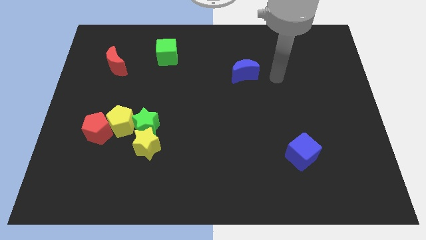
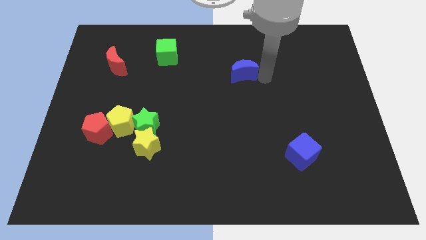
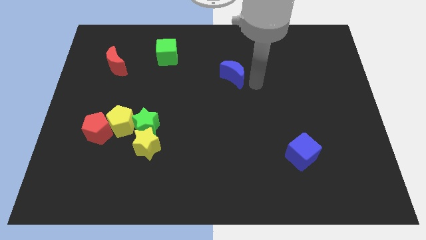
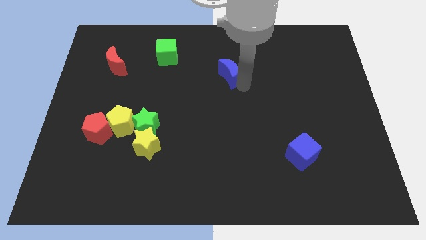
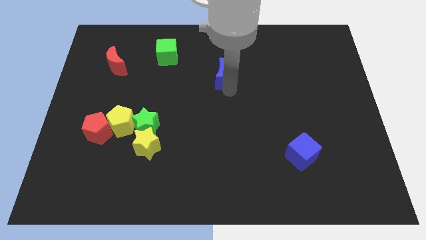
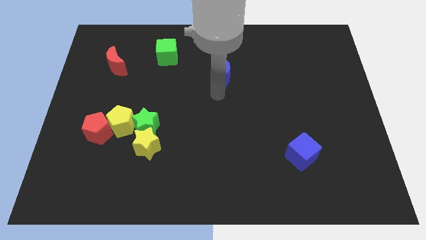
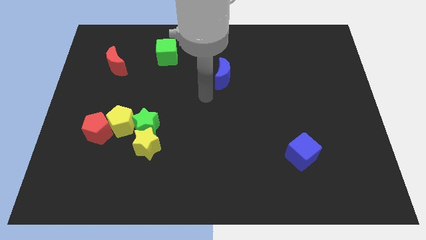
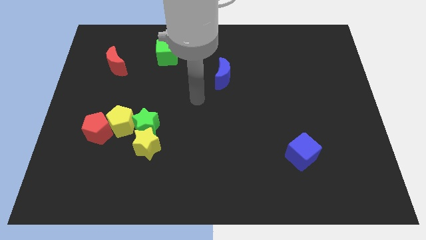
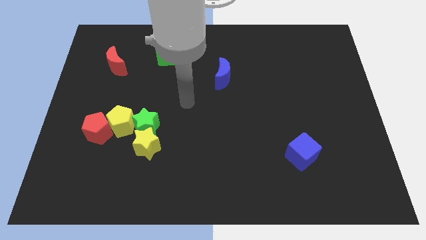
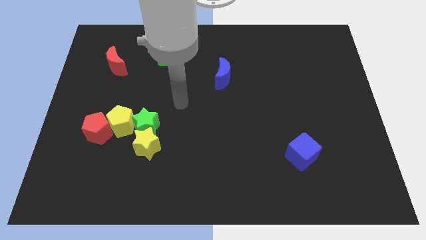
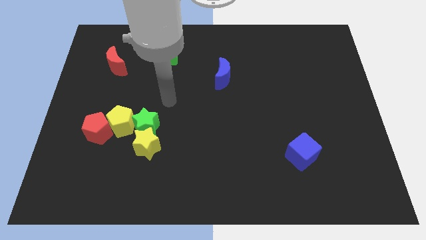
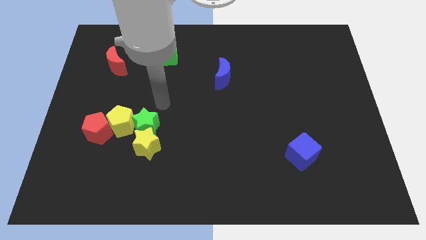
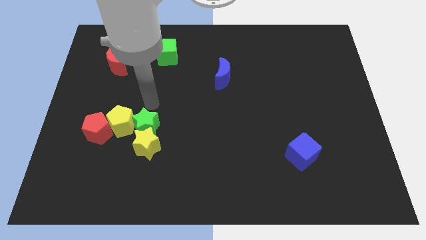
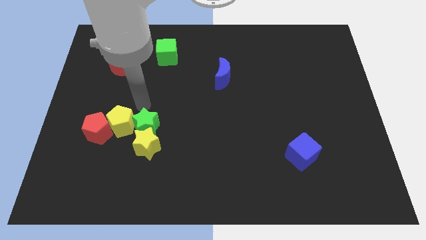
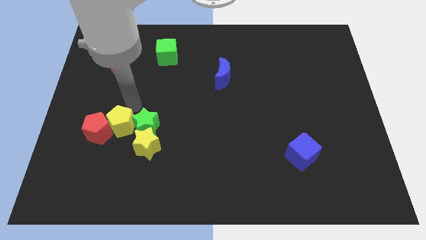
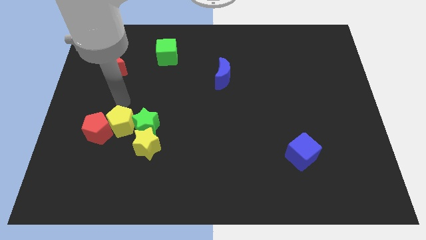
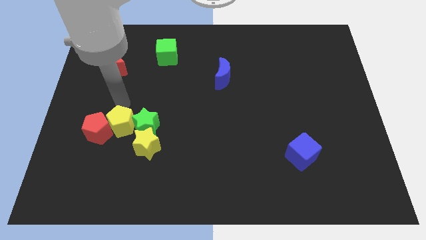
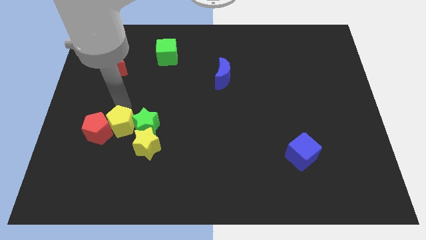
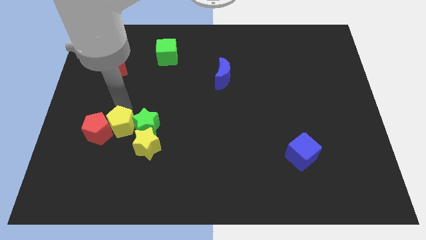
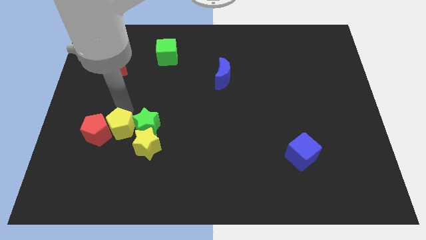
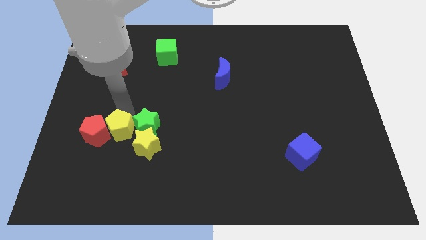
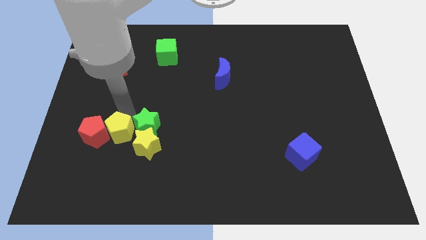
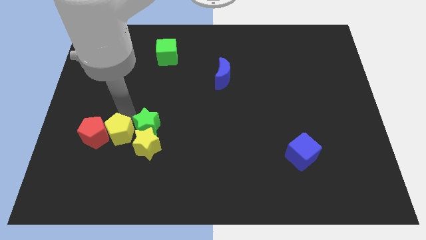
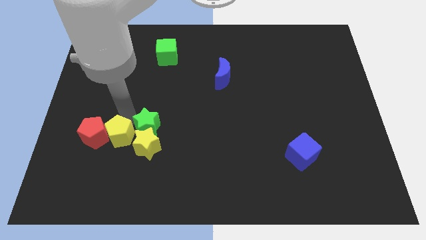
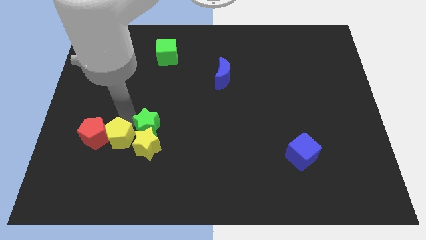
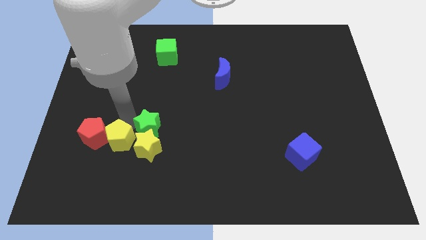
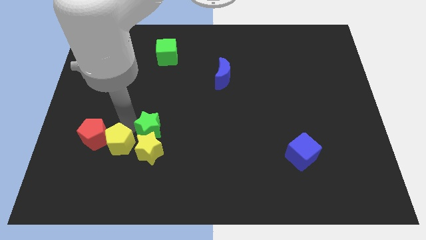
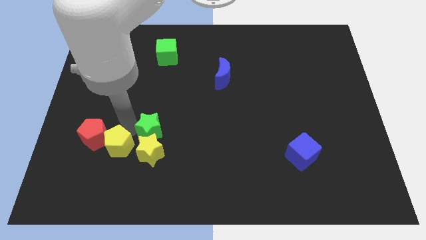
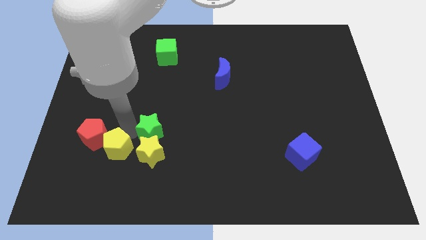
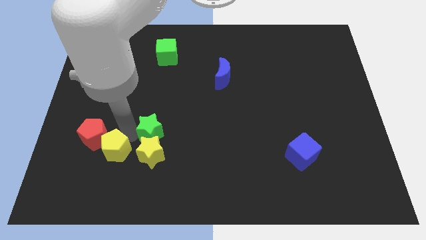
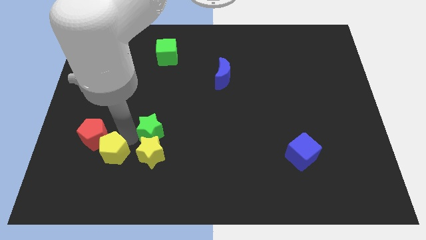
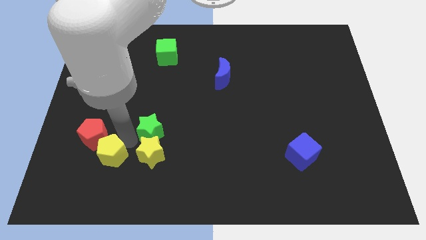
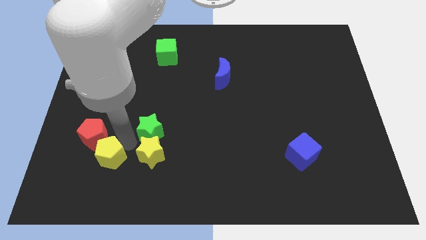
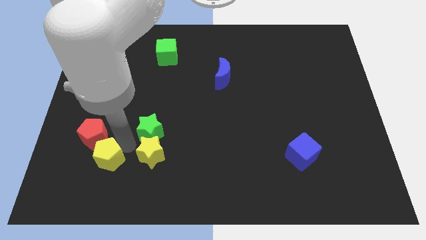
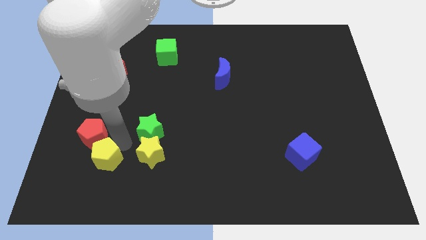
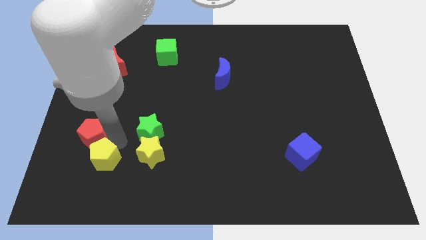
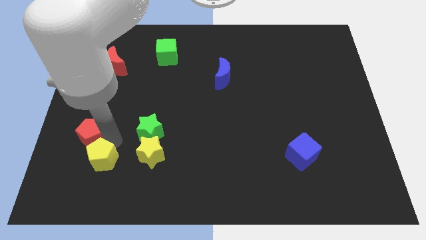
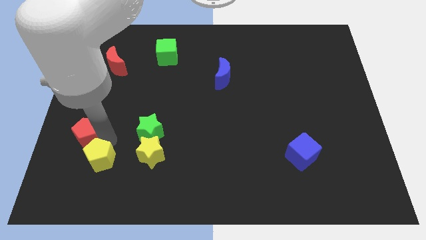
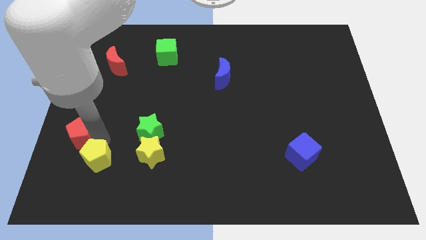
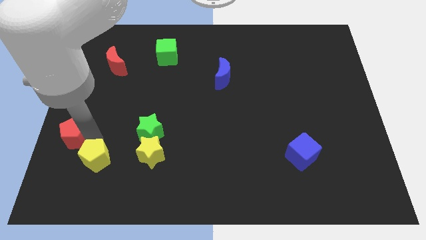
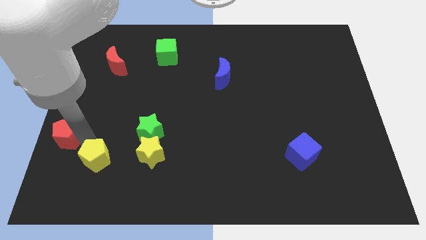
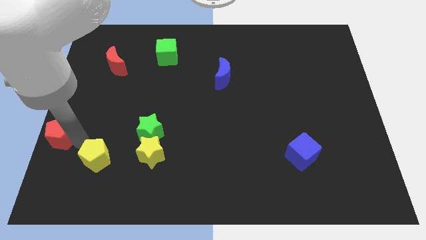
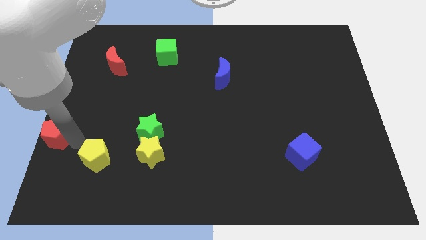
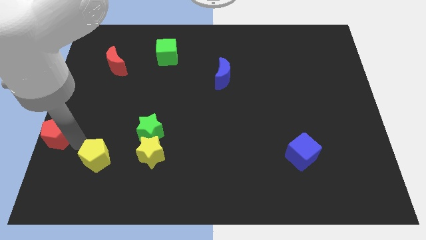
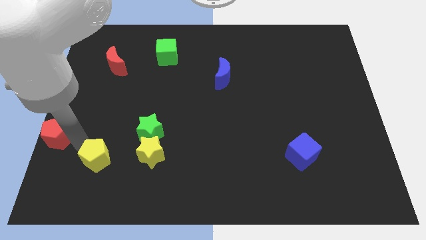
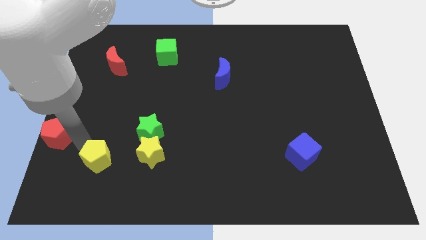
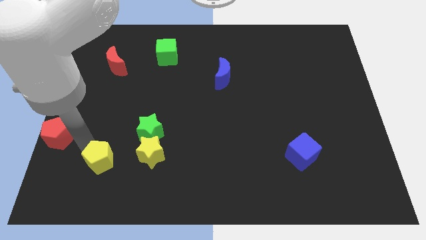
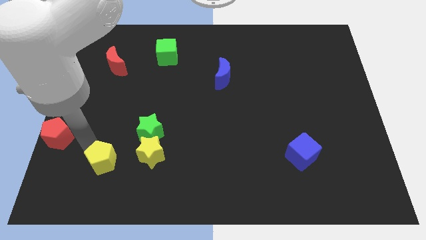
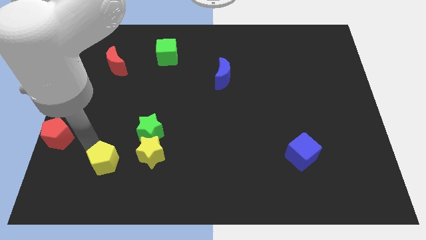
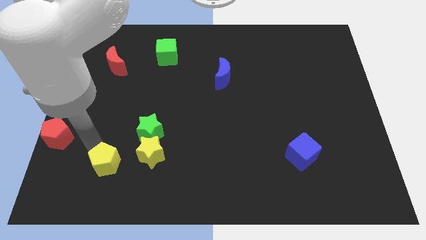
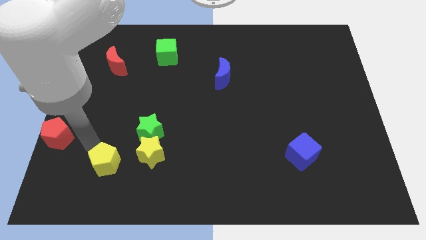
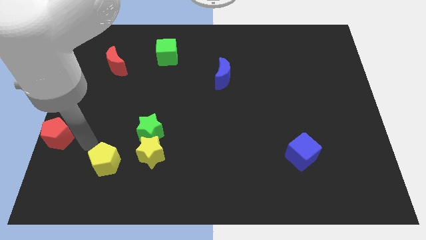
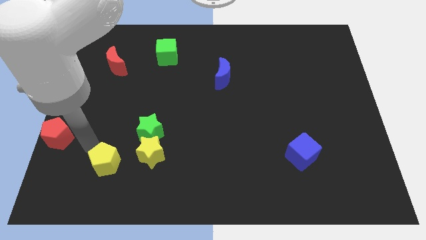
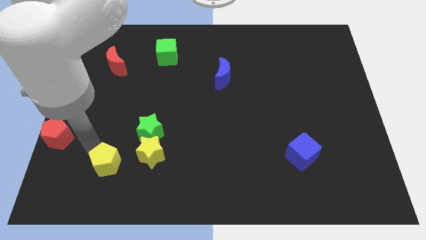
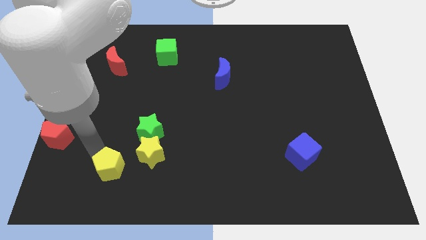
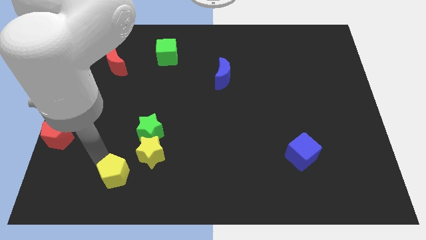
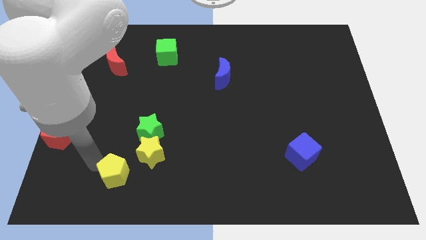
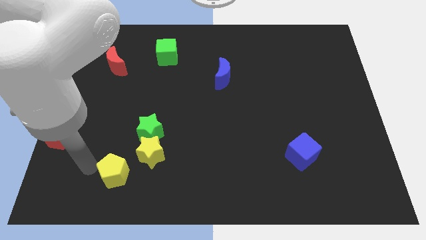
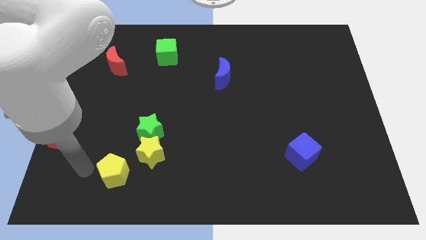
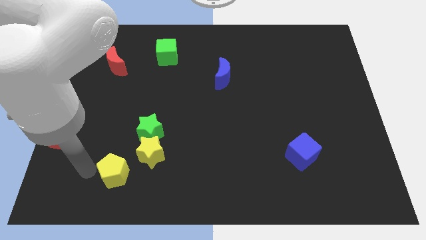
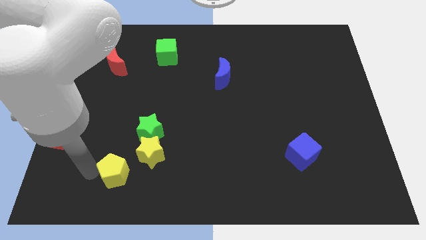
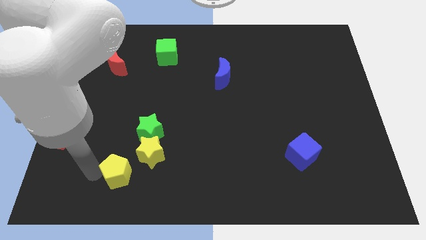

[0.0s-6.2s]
push the yellow pentagon slightly down and right

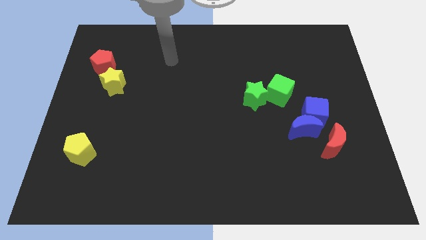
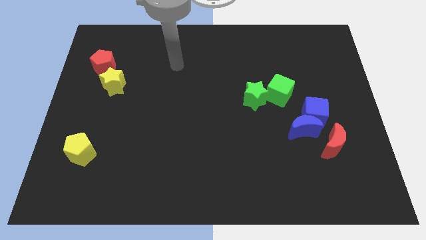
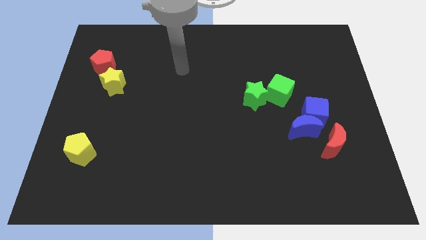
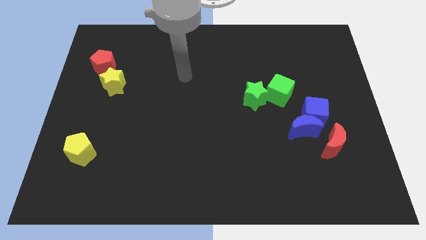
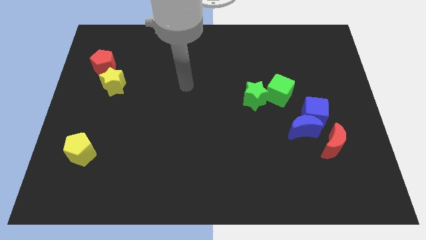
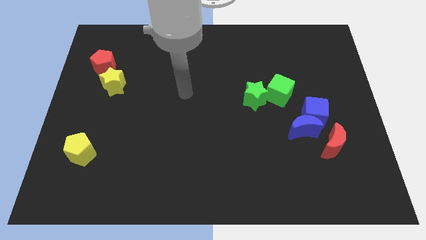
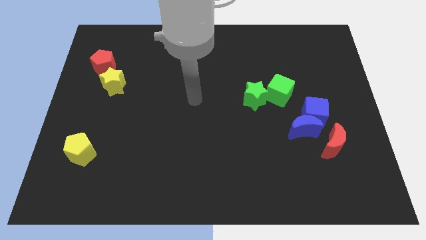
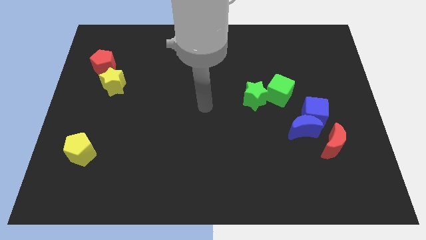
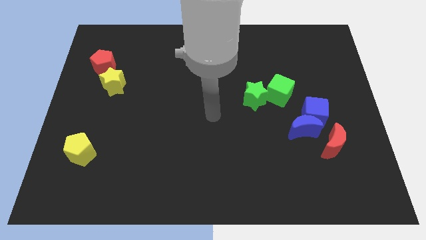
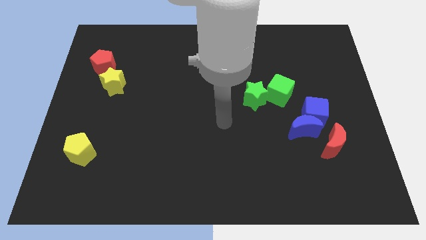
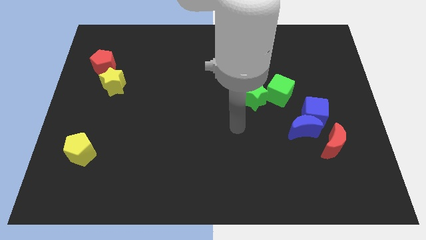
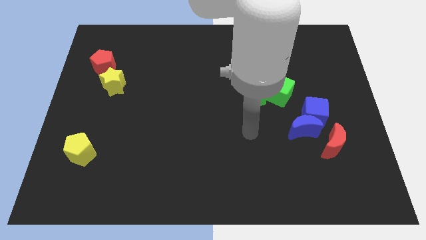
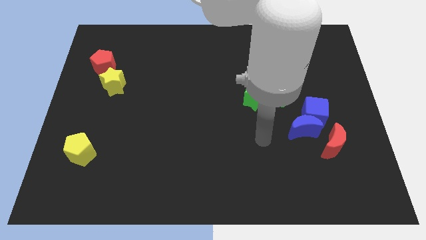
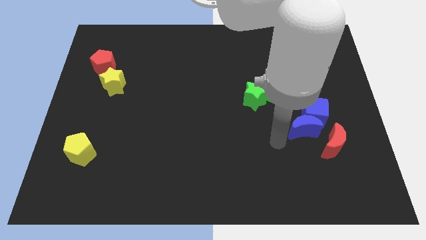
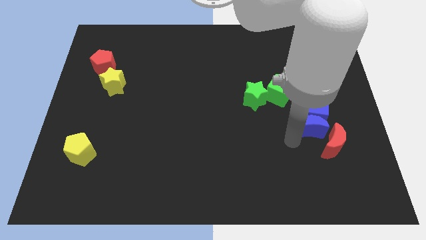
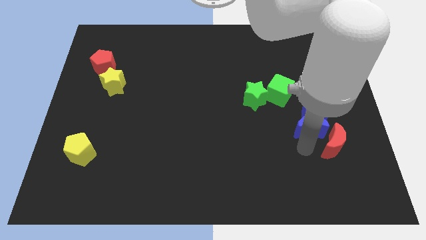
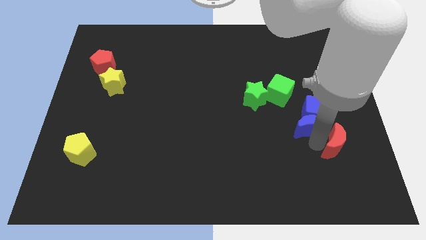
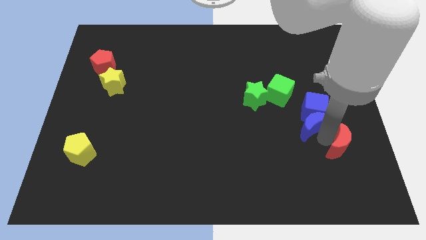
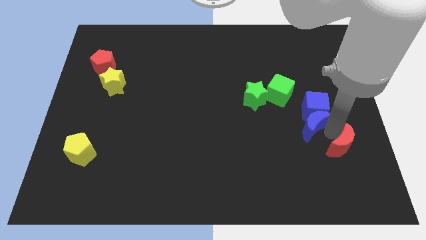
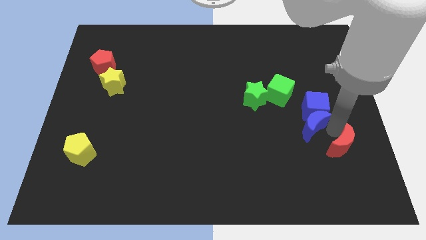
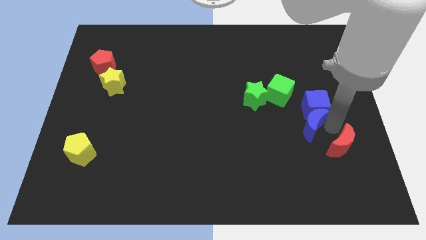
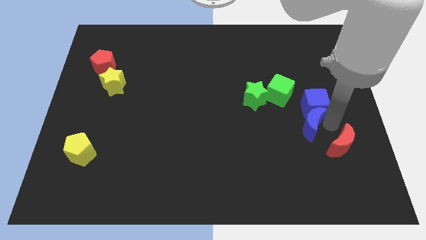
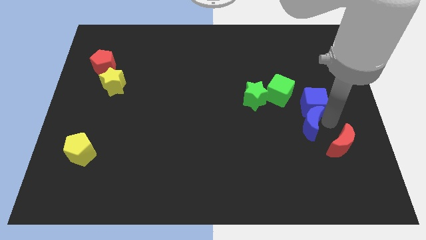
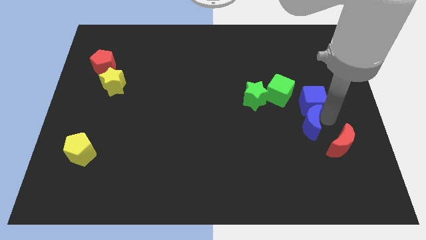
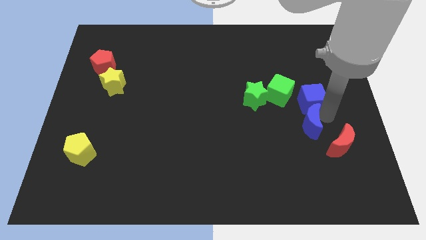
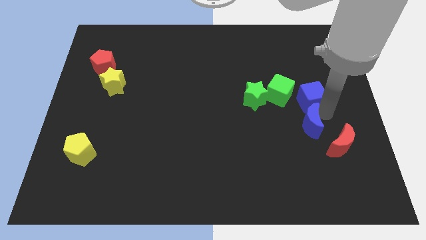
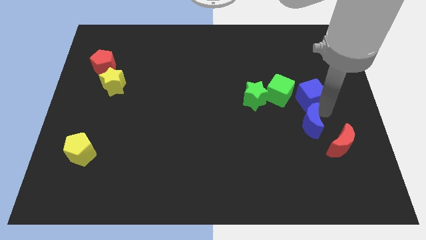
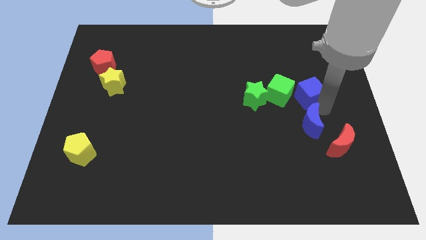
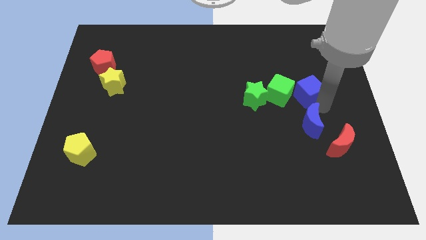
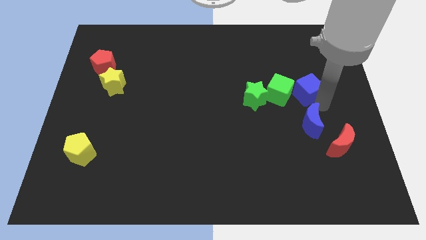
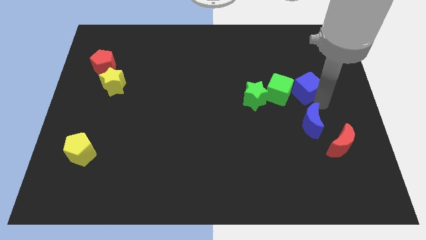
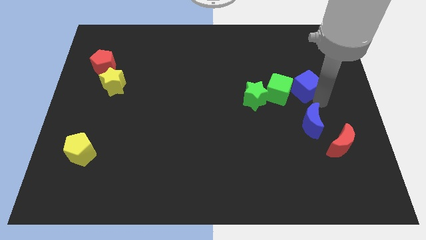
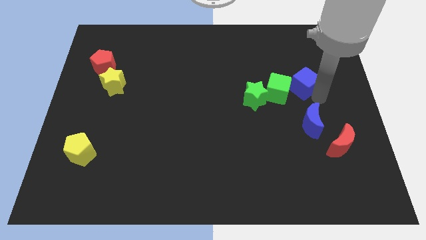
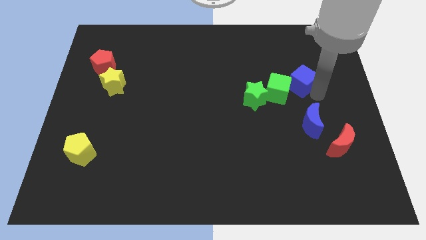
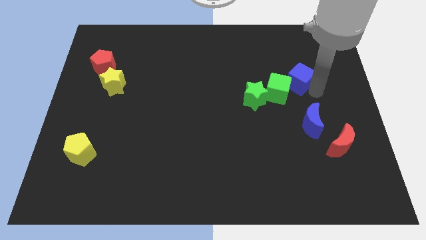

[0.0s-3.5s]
move the blue cube slightly up and left
